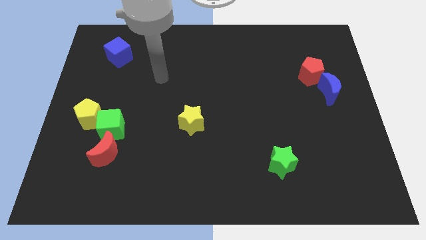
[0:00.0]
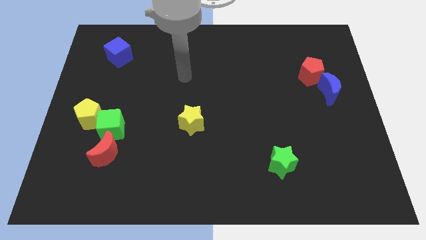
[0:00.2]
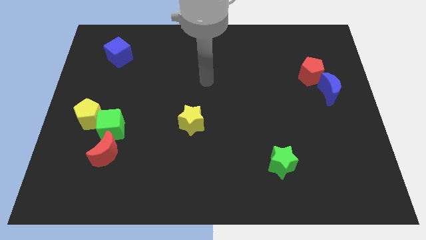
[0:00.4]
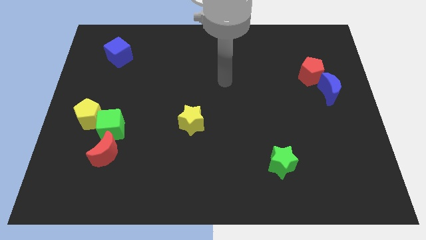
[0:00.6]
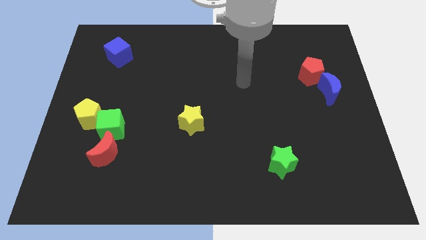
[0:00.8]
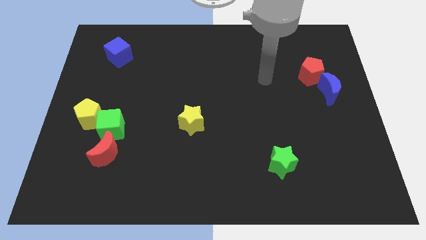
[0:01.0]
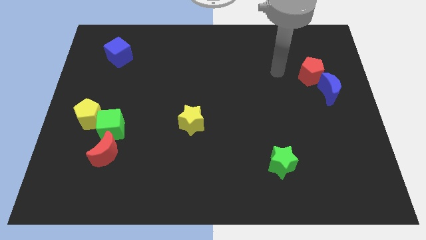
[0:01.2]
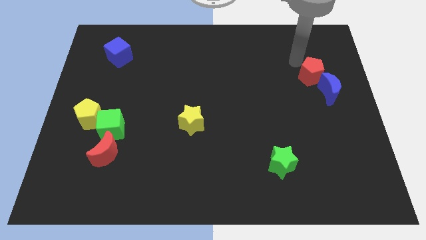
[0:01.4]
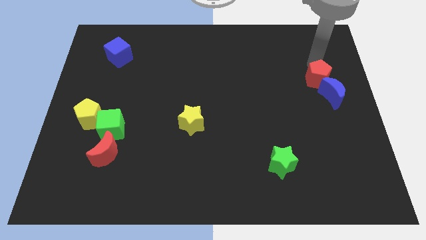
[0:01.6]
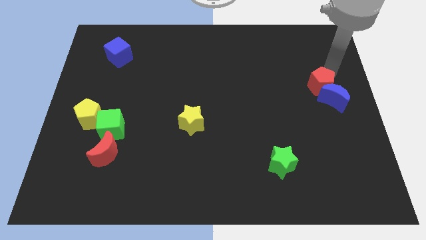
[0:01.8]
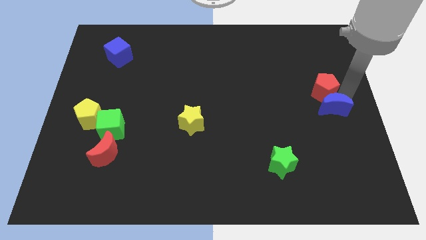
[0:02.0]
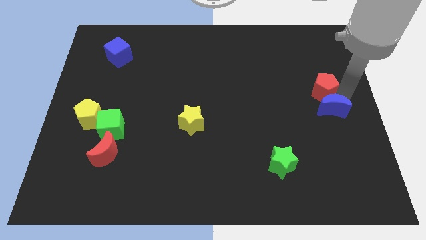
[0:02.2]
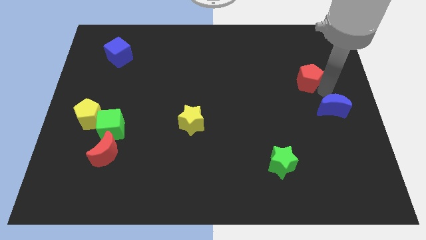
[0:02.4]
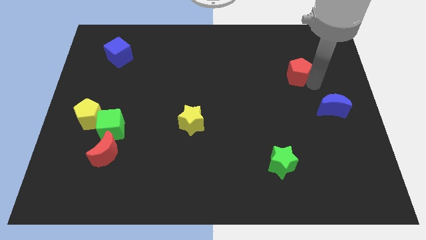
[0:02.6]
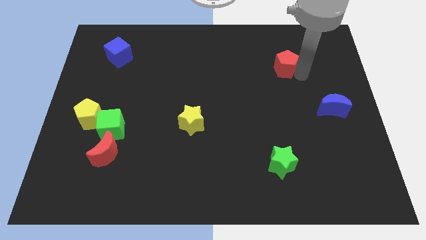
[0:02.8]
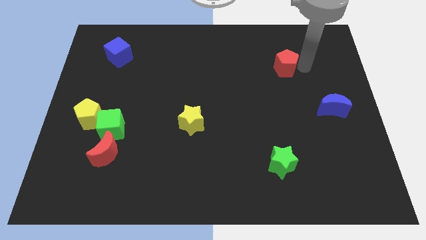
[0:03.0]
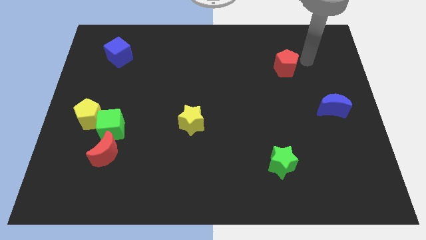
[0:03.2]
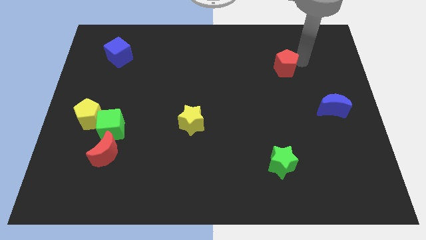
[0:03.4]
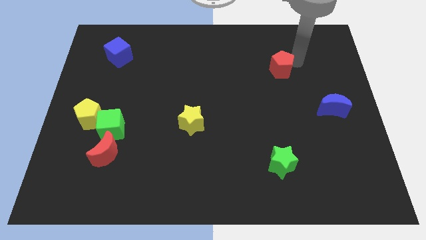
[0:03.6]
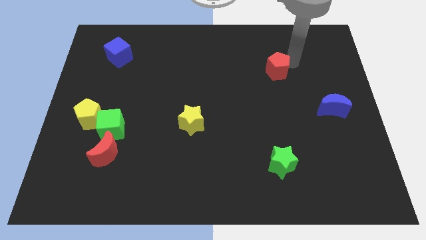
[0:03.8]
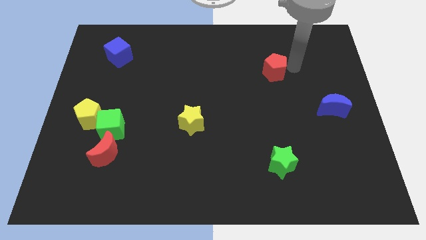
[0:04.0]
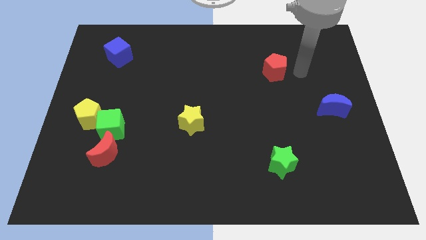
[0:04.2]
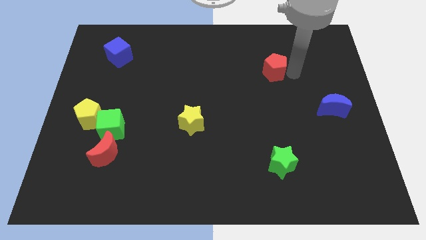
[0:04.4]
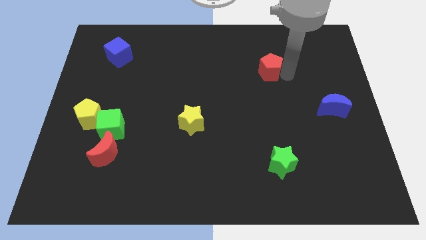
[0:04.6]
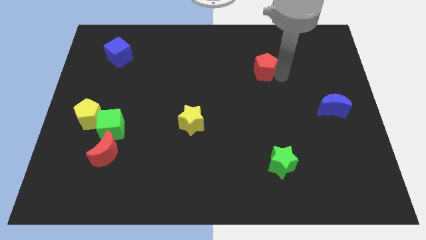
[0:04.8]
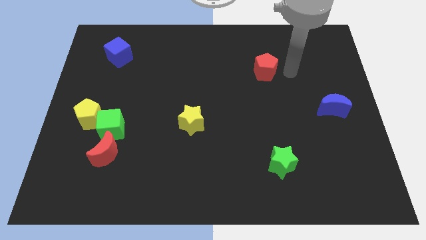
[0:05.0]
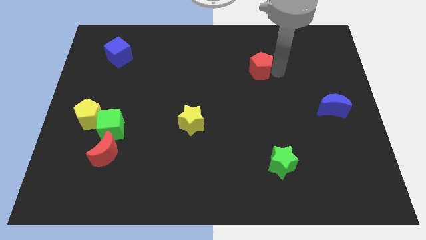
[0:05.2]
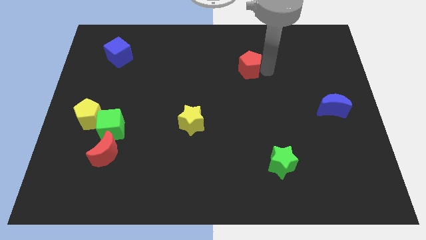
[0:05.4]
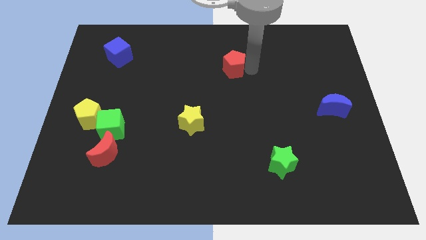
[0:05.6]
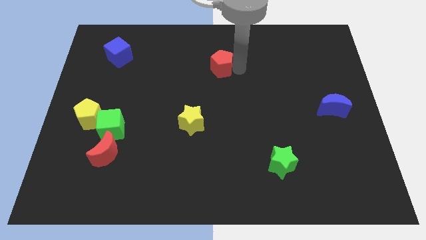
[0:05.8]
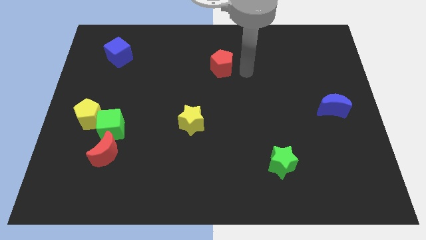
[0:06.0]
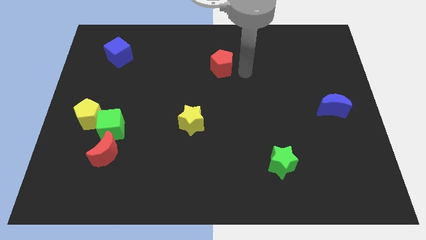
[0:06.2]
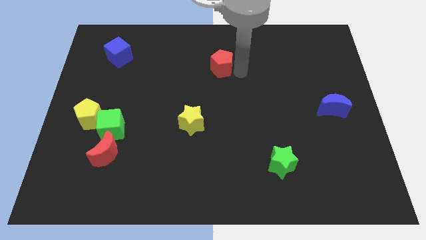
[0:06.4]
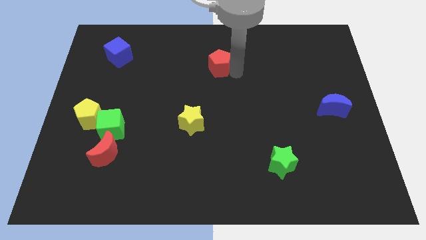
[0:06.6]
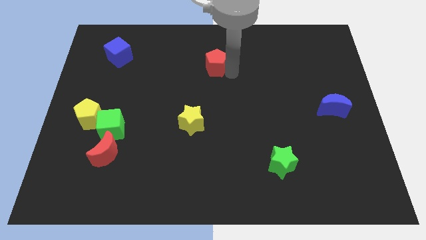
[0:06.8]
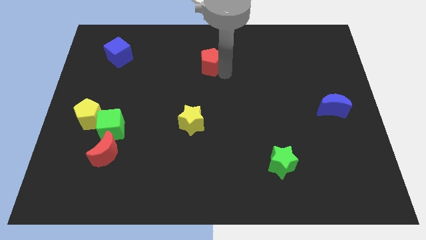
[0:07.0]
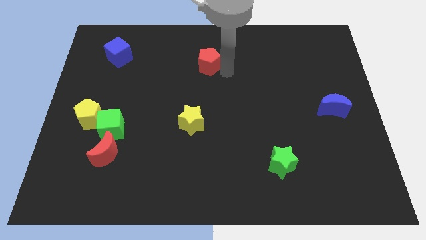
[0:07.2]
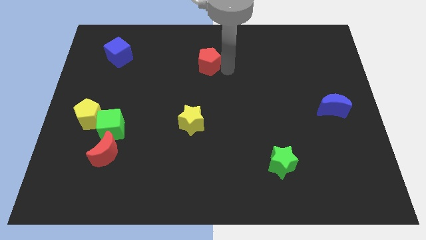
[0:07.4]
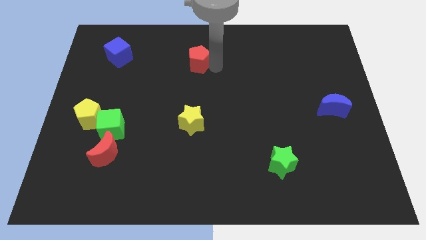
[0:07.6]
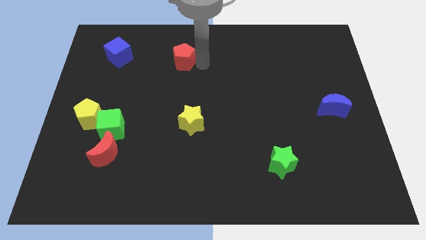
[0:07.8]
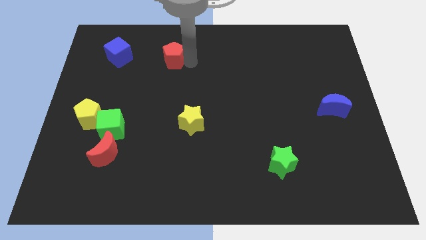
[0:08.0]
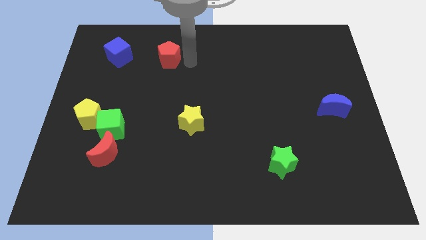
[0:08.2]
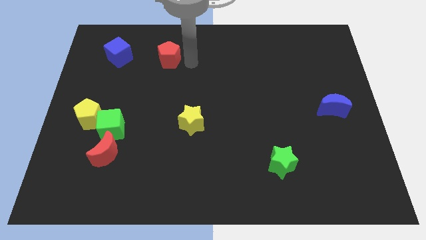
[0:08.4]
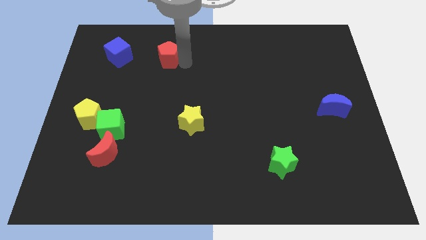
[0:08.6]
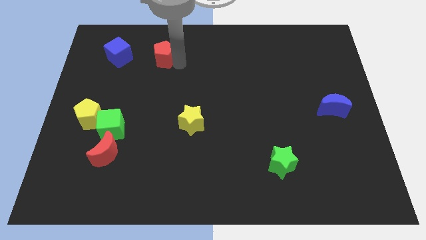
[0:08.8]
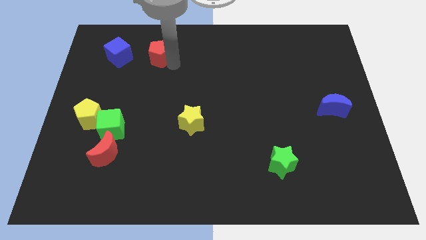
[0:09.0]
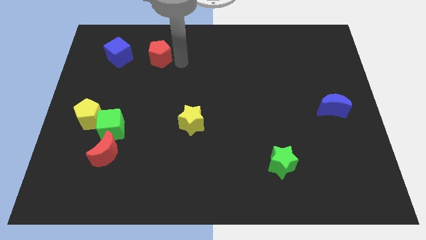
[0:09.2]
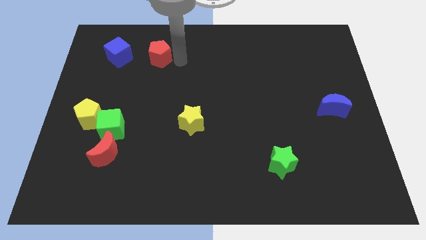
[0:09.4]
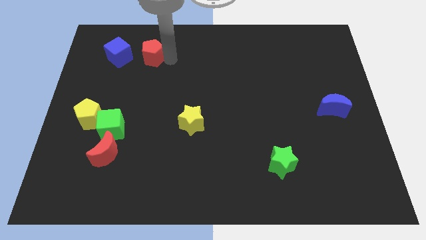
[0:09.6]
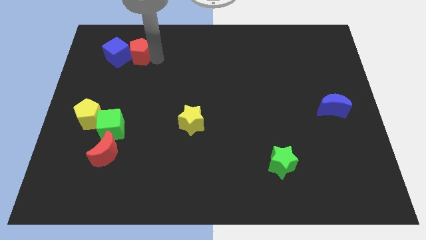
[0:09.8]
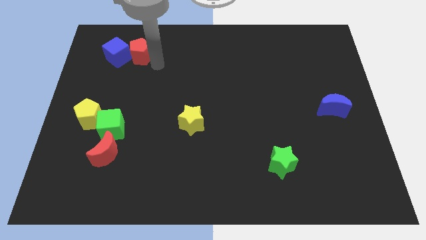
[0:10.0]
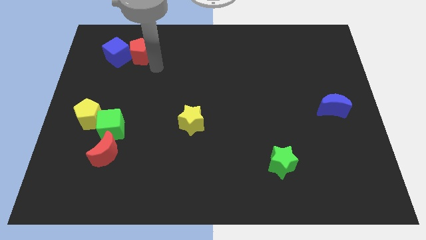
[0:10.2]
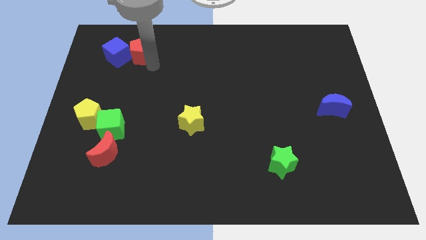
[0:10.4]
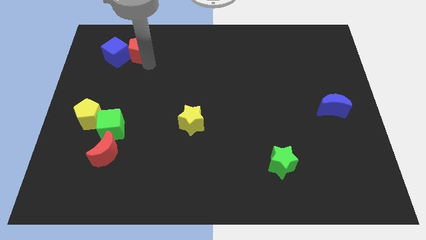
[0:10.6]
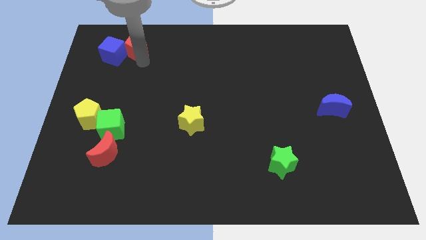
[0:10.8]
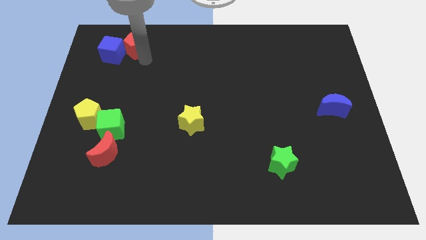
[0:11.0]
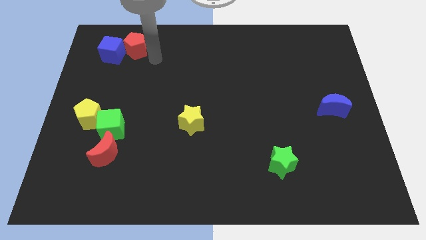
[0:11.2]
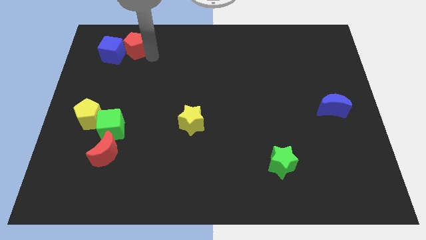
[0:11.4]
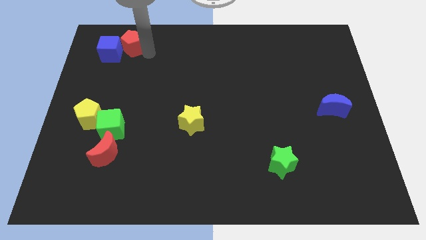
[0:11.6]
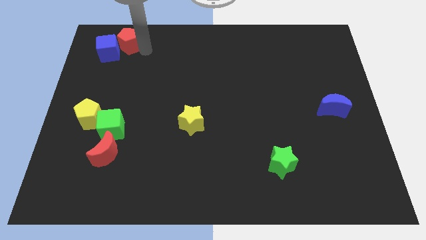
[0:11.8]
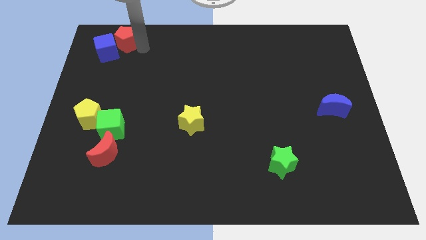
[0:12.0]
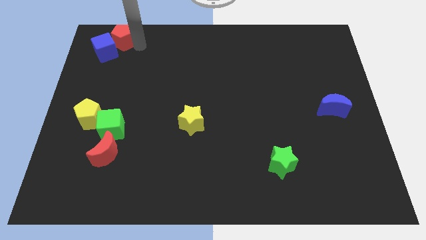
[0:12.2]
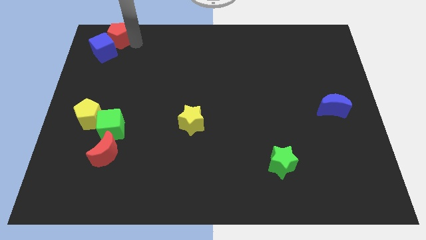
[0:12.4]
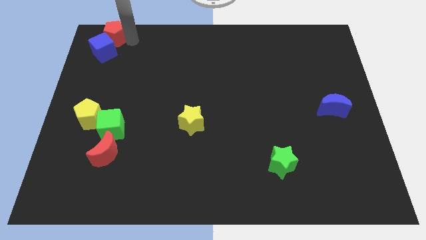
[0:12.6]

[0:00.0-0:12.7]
slide the red pentagon to the top left
